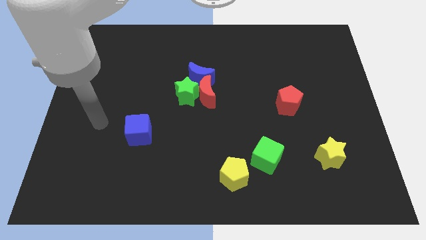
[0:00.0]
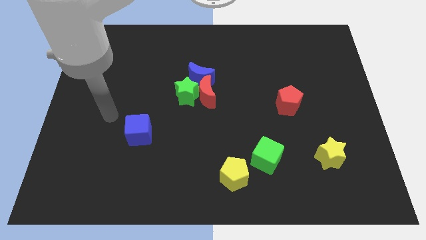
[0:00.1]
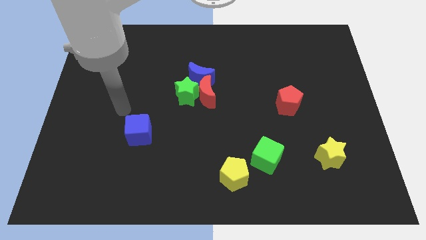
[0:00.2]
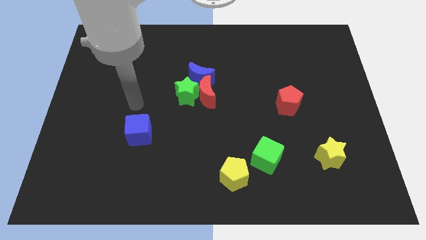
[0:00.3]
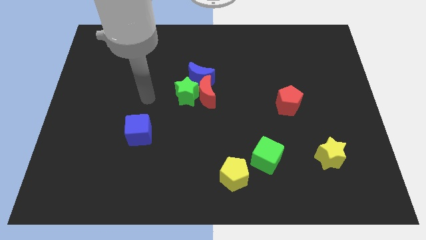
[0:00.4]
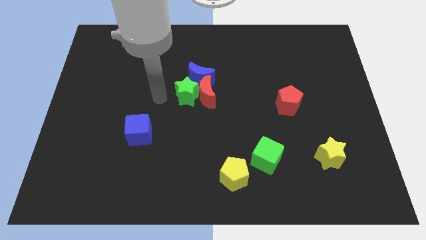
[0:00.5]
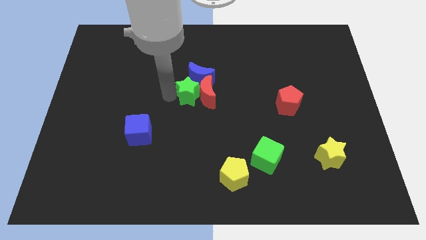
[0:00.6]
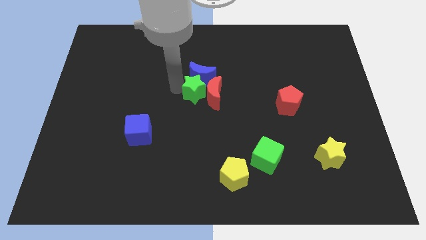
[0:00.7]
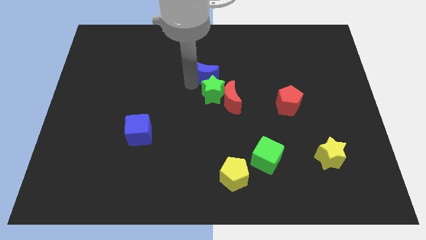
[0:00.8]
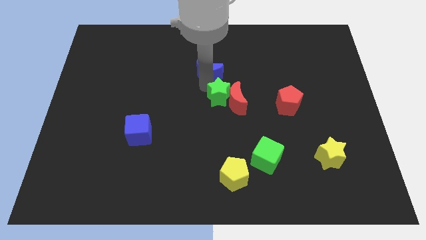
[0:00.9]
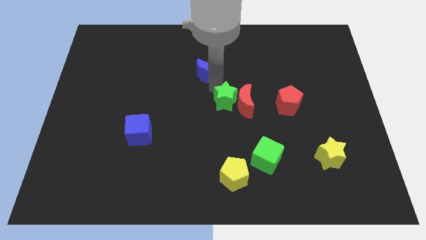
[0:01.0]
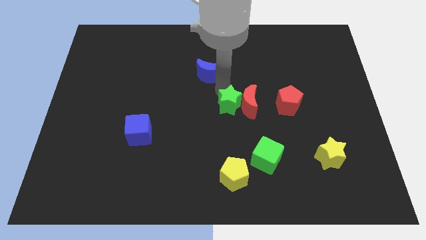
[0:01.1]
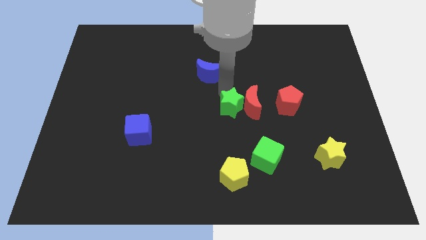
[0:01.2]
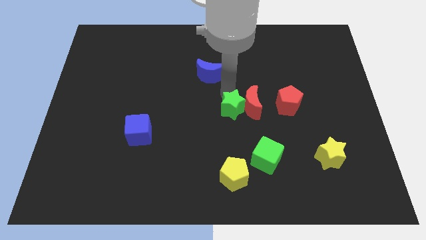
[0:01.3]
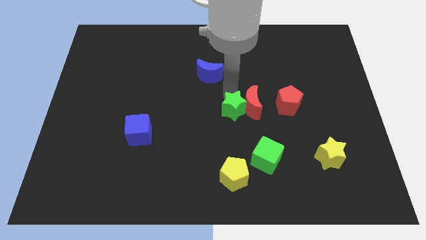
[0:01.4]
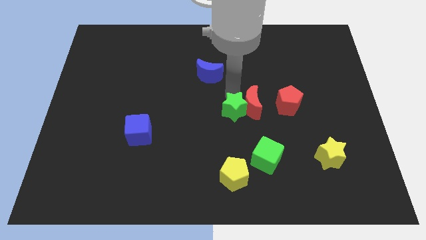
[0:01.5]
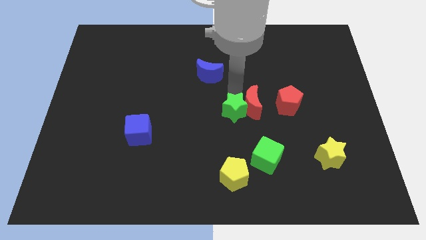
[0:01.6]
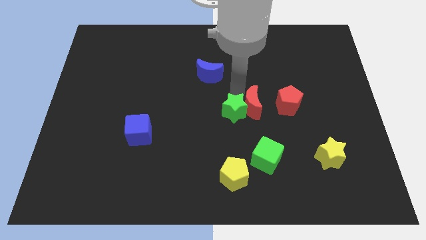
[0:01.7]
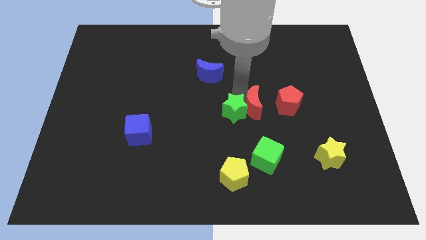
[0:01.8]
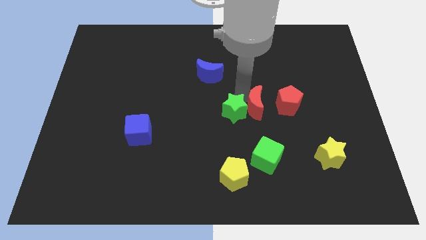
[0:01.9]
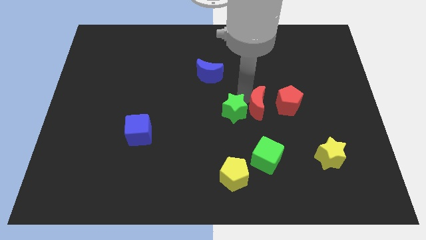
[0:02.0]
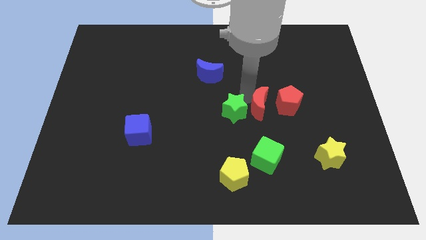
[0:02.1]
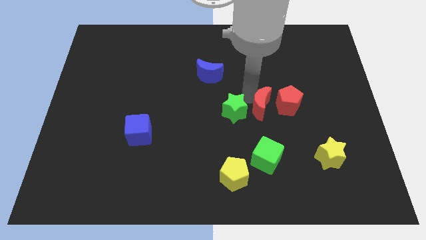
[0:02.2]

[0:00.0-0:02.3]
pull the red moon apart from the green star and blue moon

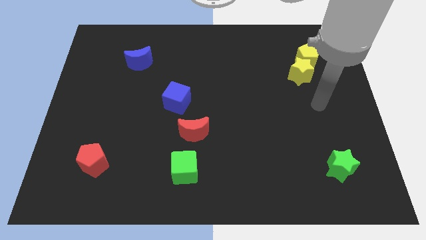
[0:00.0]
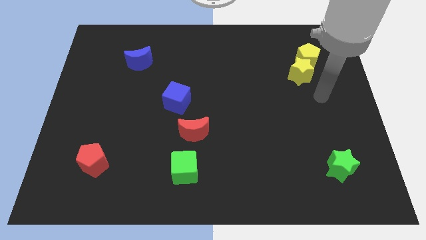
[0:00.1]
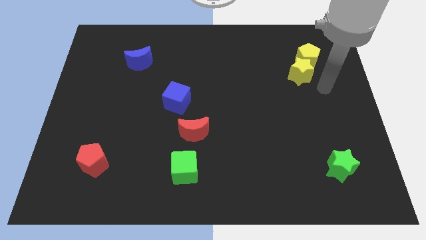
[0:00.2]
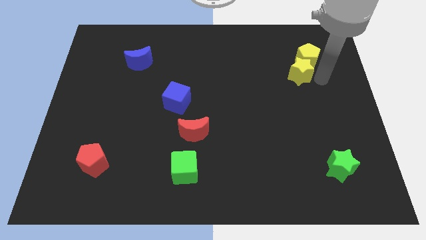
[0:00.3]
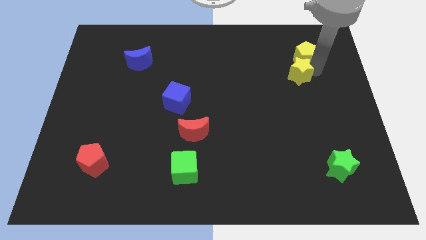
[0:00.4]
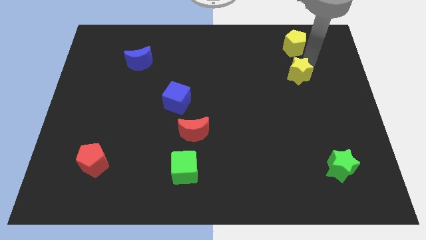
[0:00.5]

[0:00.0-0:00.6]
separate the yellow star from the yellow pentagon

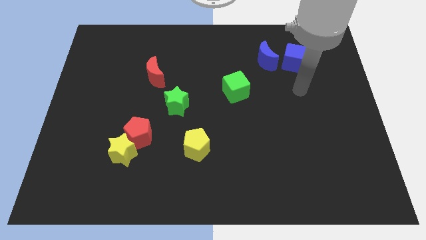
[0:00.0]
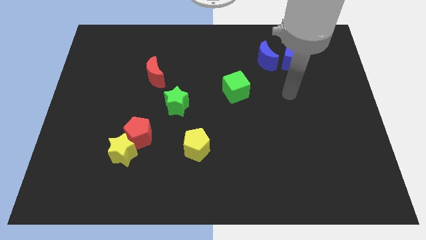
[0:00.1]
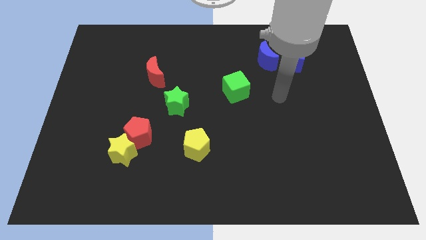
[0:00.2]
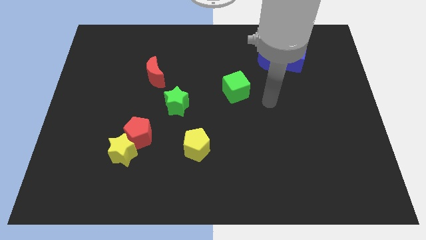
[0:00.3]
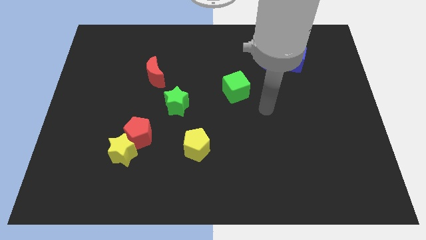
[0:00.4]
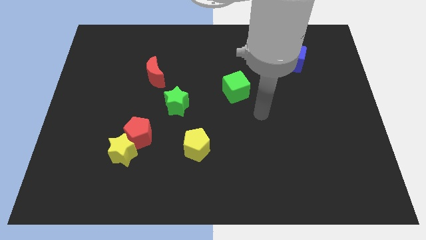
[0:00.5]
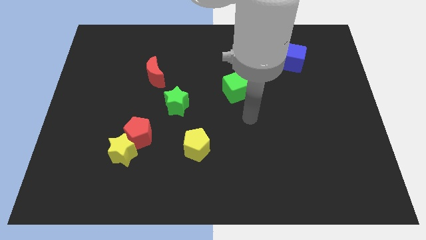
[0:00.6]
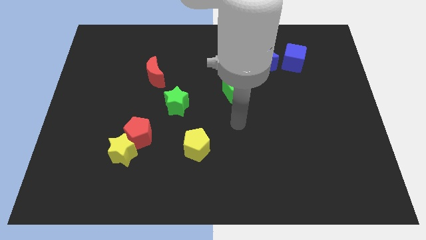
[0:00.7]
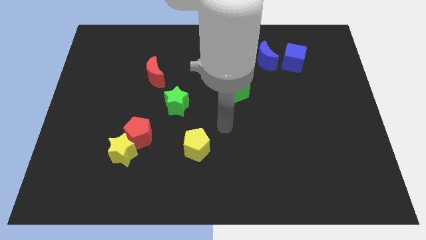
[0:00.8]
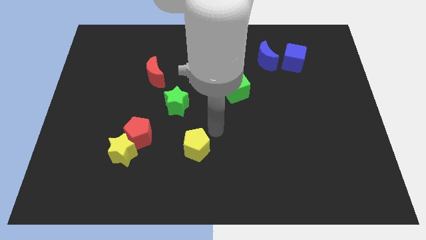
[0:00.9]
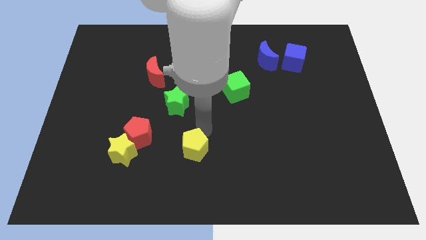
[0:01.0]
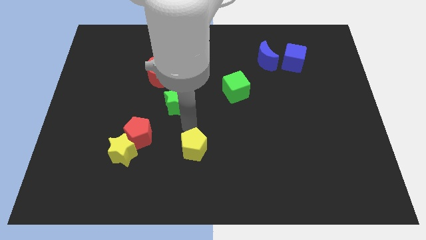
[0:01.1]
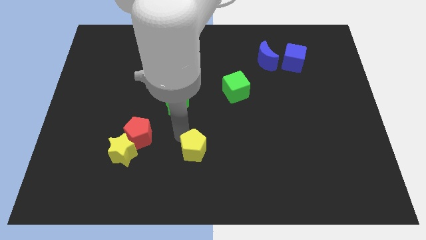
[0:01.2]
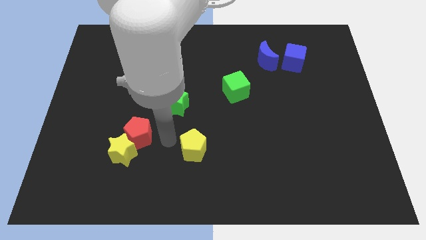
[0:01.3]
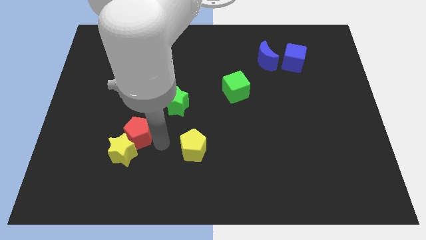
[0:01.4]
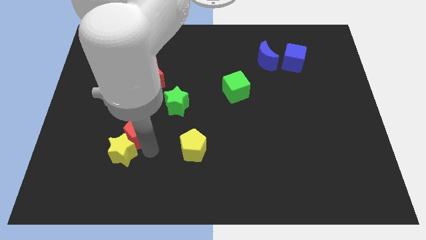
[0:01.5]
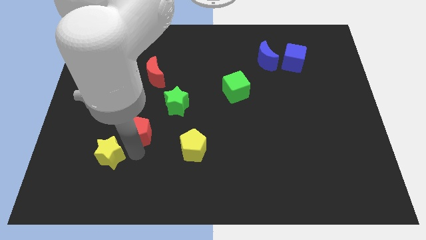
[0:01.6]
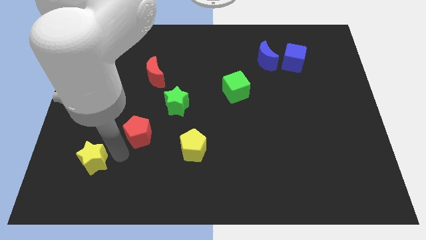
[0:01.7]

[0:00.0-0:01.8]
separate the red pentagon from the yellow star

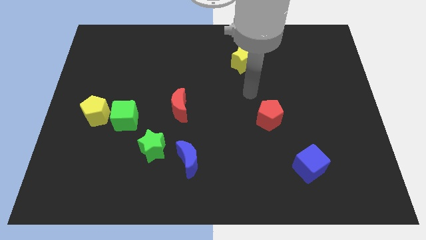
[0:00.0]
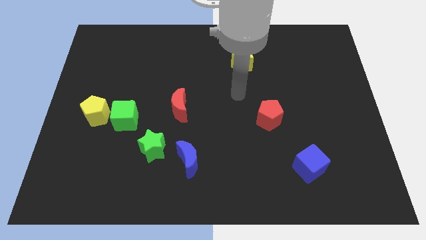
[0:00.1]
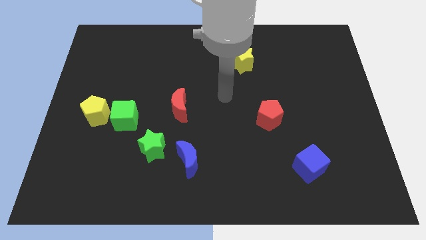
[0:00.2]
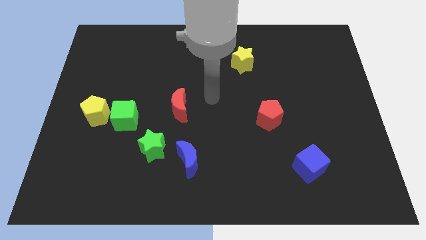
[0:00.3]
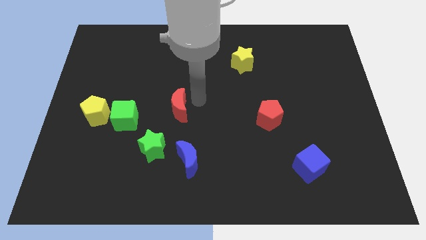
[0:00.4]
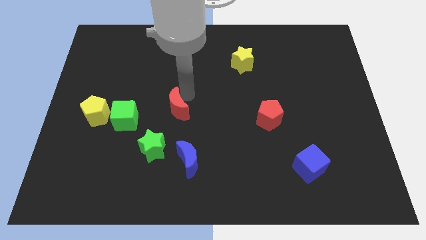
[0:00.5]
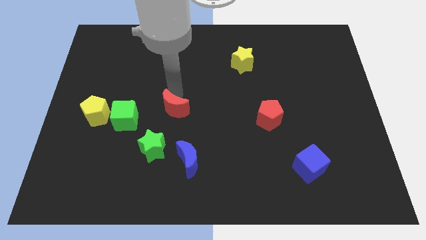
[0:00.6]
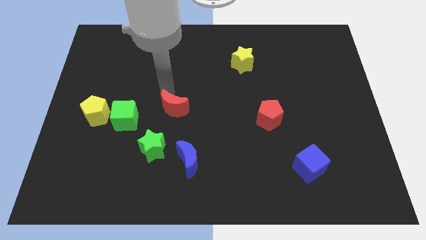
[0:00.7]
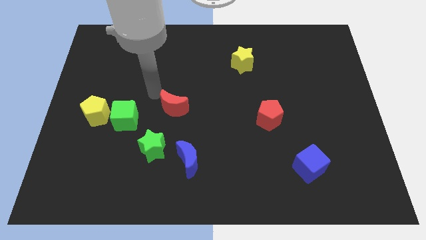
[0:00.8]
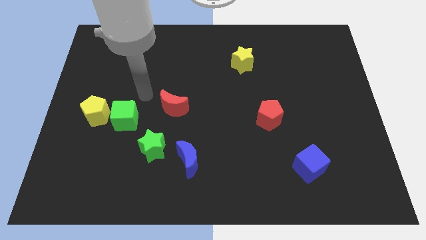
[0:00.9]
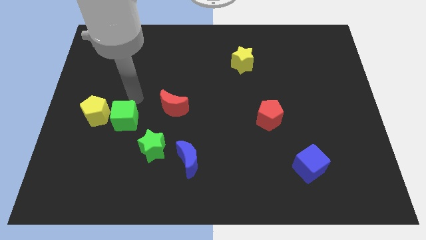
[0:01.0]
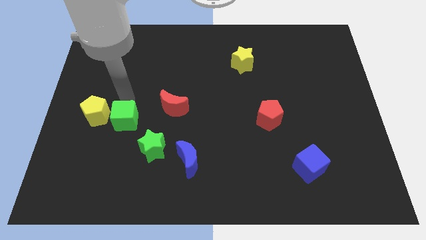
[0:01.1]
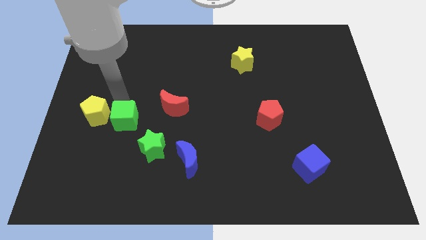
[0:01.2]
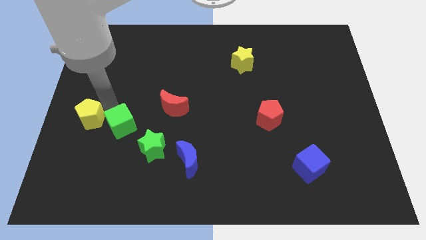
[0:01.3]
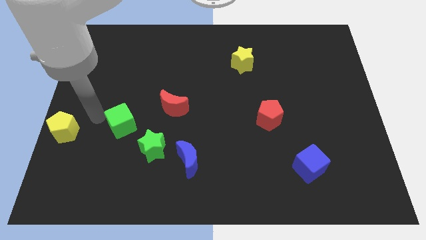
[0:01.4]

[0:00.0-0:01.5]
separate the green cube from the yellow pentagon

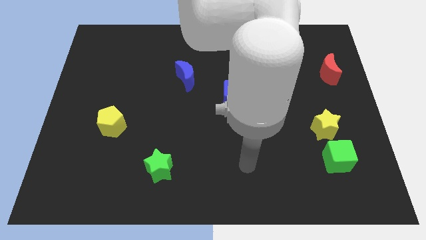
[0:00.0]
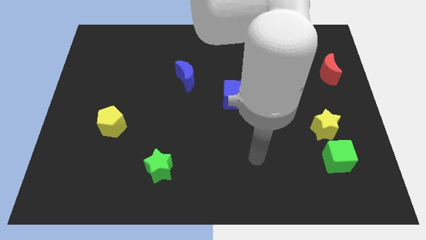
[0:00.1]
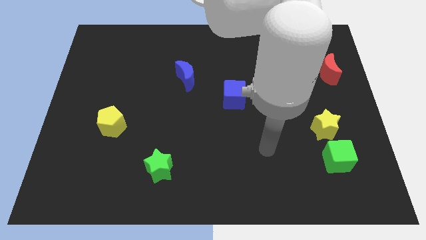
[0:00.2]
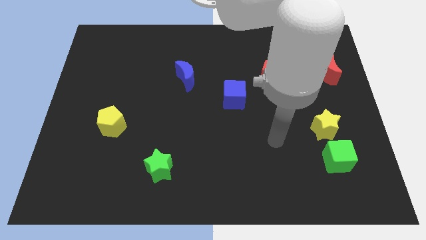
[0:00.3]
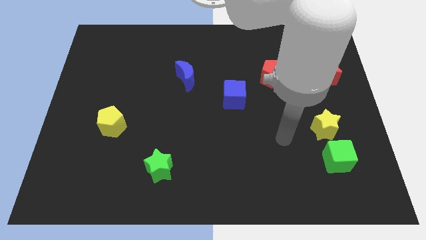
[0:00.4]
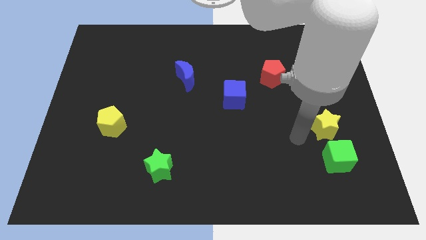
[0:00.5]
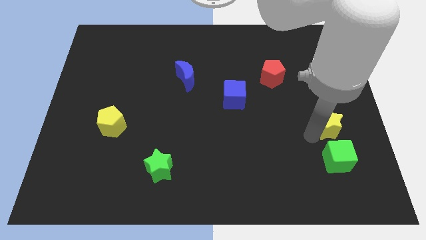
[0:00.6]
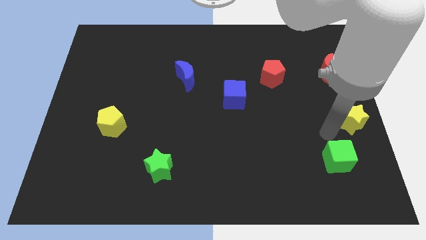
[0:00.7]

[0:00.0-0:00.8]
move the green cube away from the yellow star

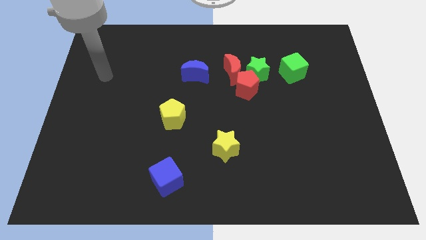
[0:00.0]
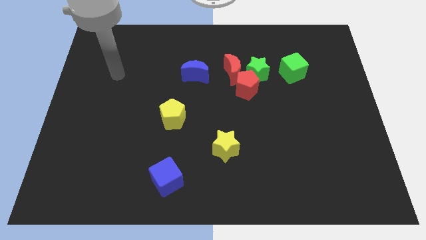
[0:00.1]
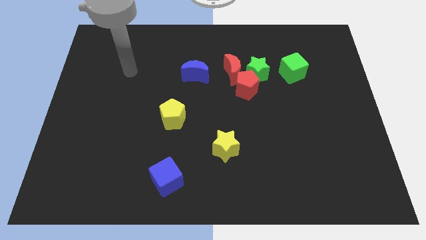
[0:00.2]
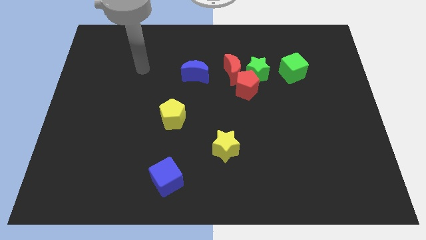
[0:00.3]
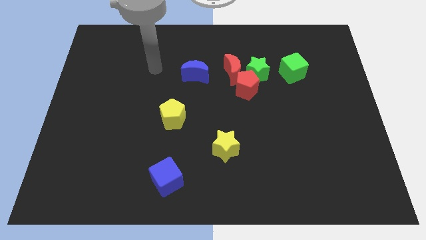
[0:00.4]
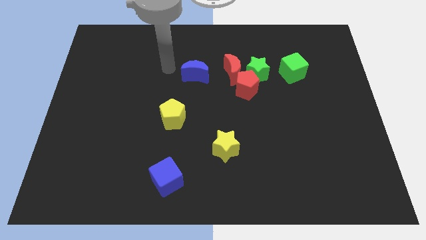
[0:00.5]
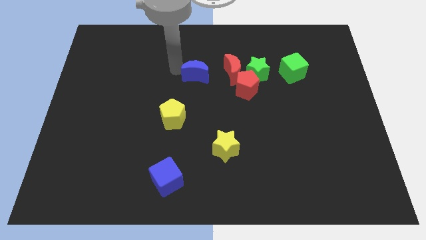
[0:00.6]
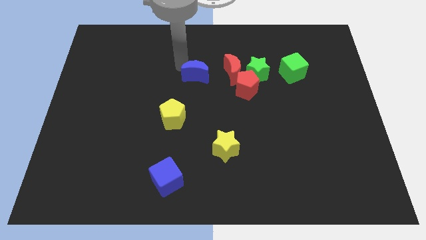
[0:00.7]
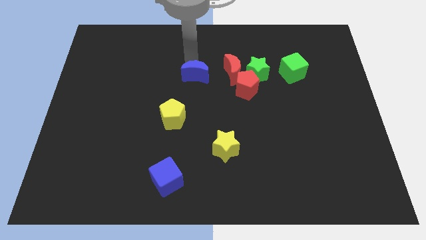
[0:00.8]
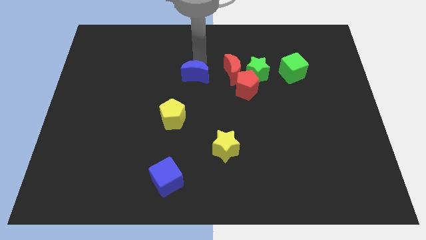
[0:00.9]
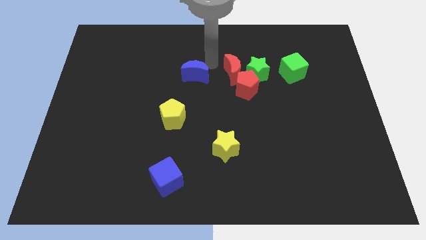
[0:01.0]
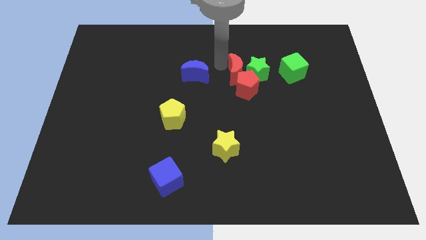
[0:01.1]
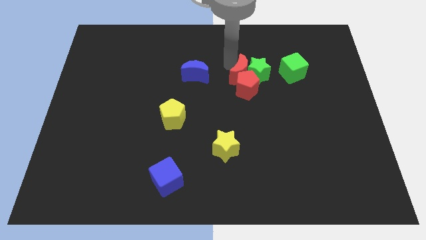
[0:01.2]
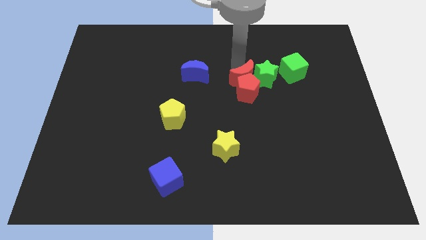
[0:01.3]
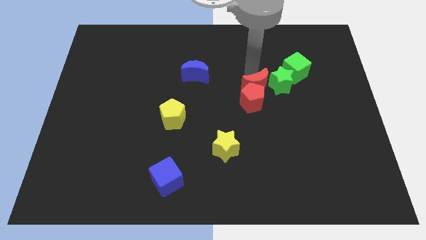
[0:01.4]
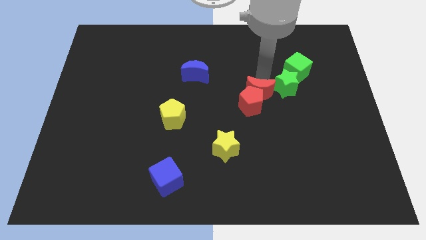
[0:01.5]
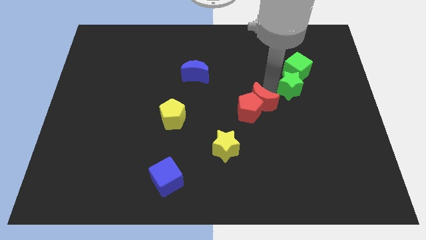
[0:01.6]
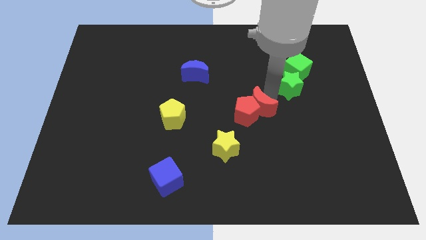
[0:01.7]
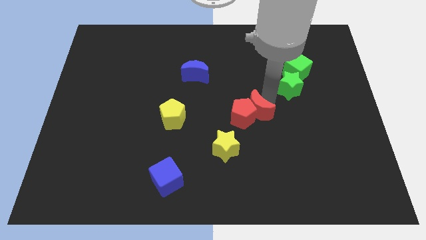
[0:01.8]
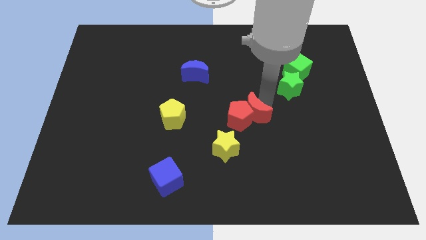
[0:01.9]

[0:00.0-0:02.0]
move the red pentagon away from the green star and red moon

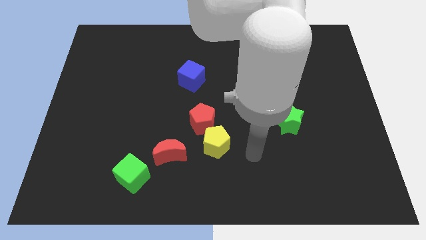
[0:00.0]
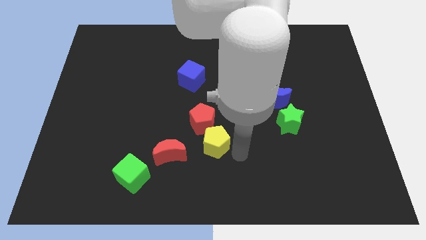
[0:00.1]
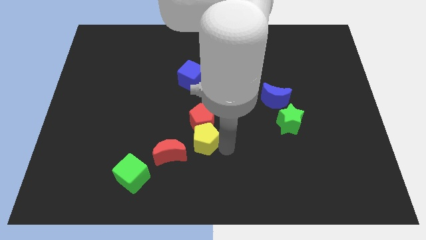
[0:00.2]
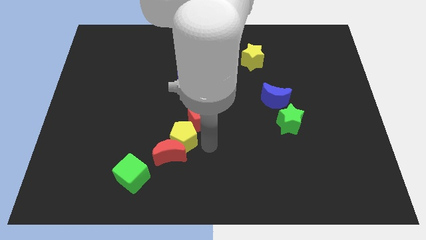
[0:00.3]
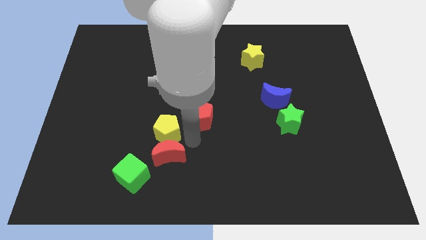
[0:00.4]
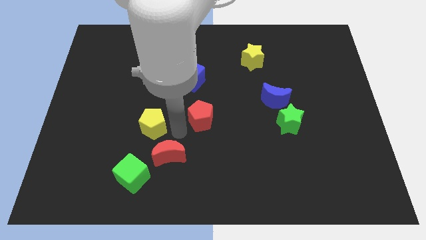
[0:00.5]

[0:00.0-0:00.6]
move the red pentagon away from the yellow pentagon
